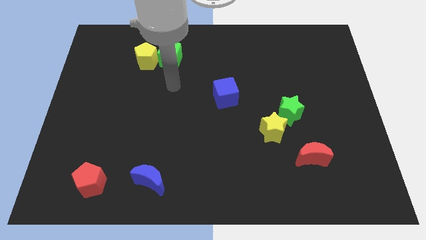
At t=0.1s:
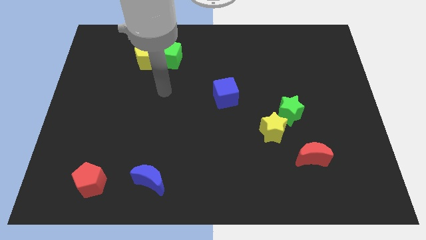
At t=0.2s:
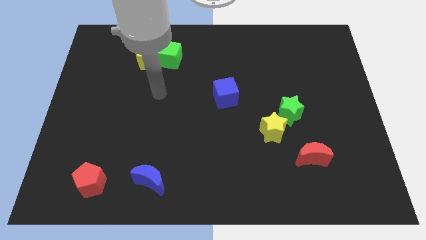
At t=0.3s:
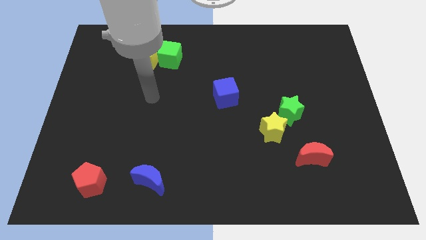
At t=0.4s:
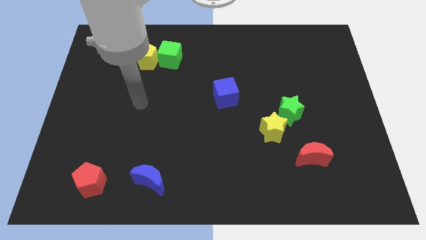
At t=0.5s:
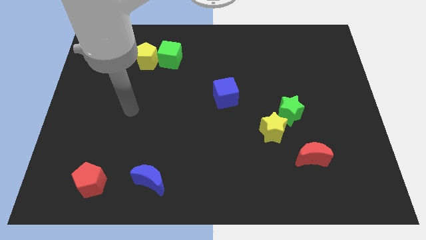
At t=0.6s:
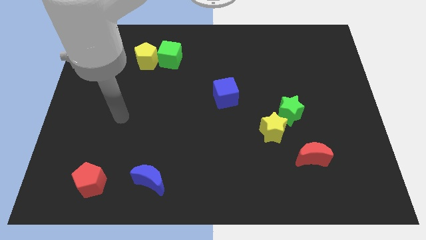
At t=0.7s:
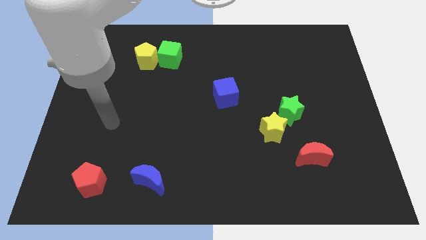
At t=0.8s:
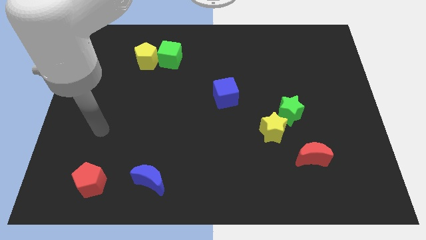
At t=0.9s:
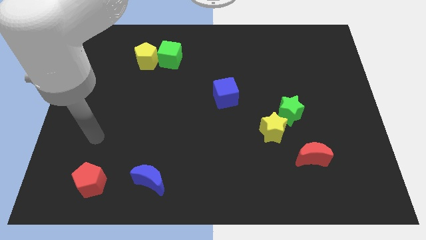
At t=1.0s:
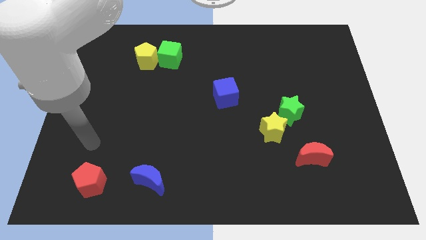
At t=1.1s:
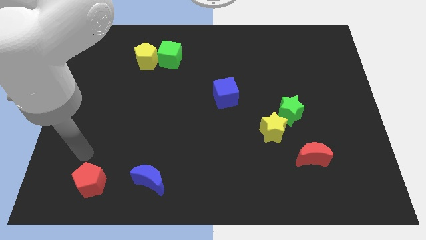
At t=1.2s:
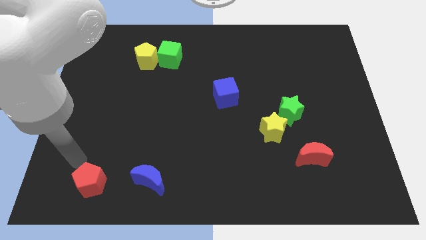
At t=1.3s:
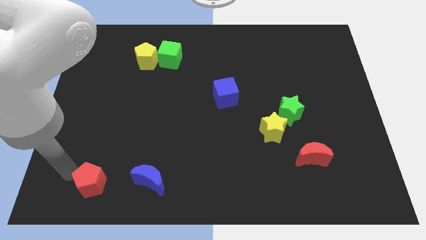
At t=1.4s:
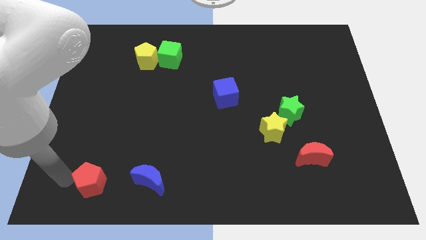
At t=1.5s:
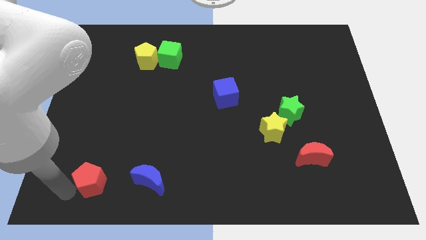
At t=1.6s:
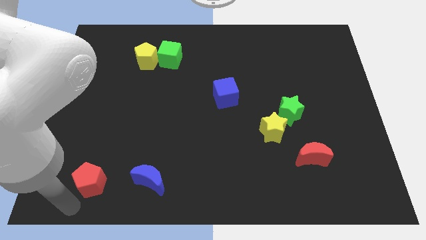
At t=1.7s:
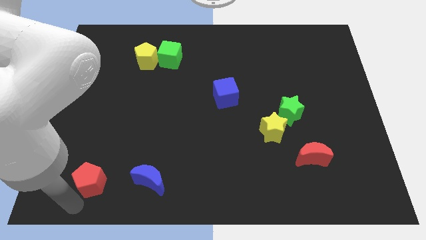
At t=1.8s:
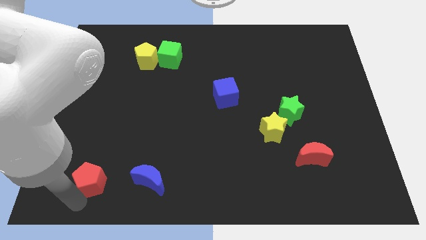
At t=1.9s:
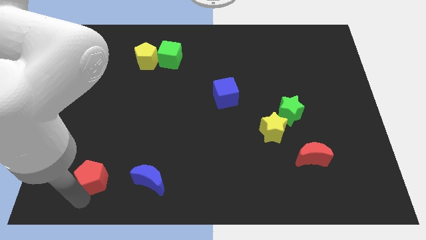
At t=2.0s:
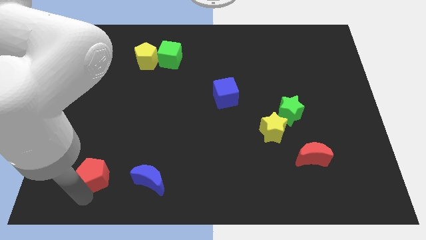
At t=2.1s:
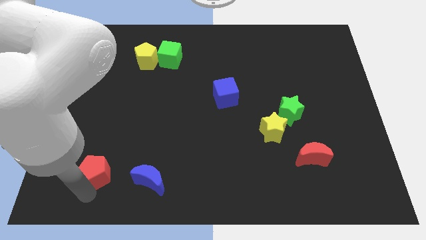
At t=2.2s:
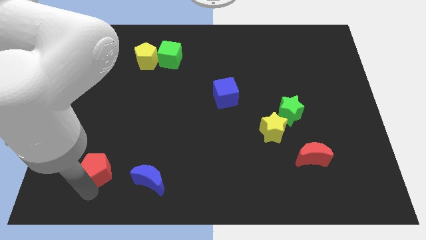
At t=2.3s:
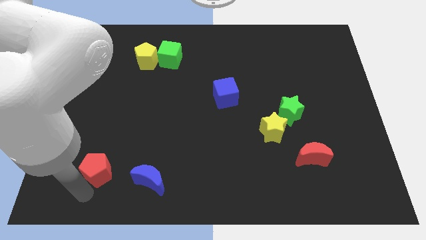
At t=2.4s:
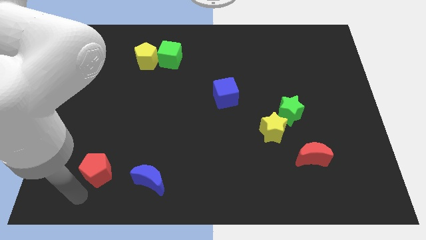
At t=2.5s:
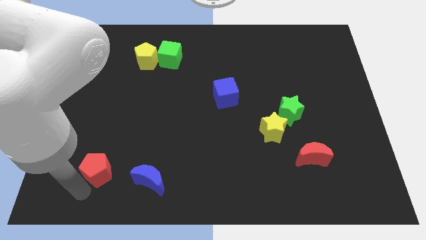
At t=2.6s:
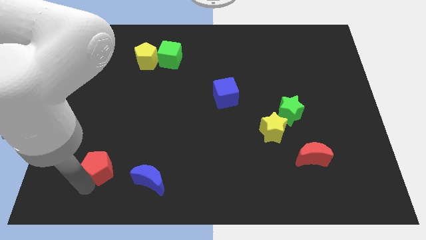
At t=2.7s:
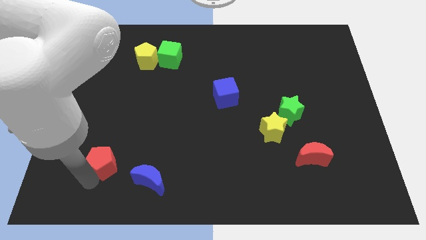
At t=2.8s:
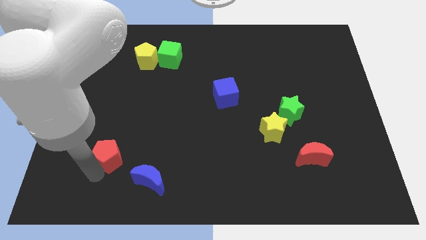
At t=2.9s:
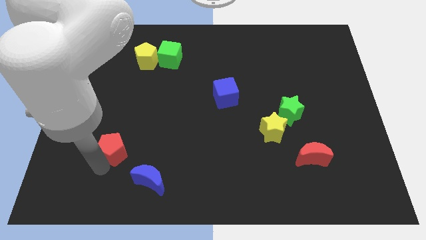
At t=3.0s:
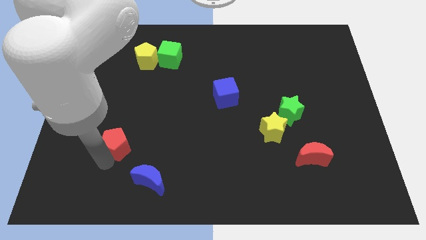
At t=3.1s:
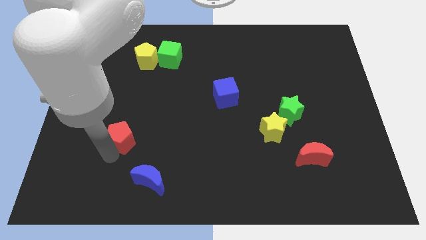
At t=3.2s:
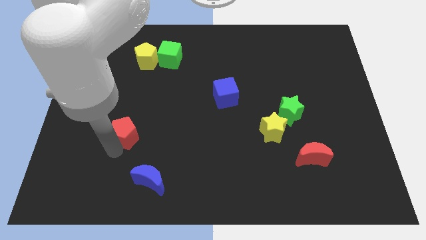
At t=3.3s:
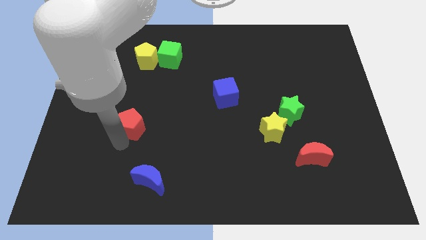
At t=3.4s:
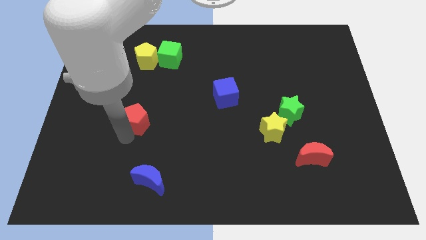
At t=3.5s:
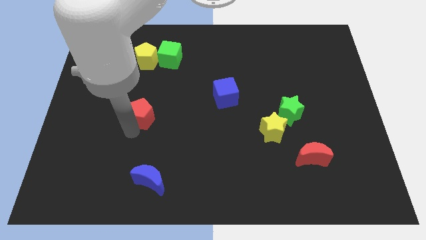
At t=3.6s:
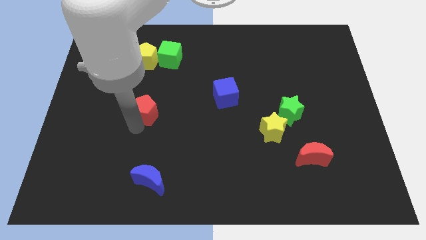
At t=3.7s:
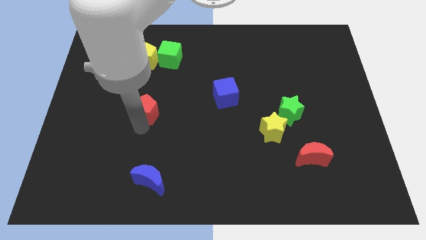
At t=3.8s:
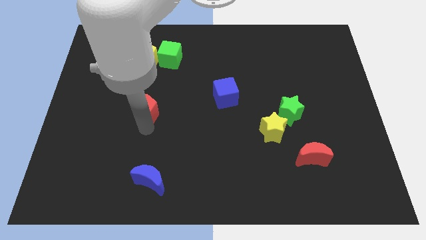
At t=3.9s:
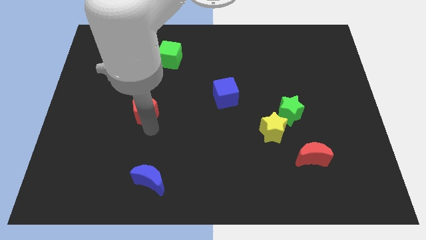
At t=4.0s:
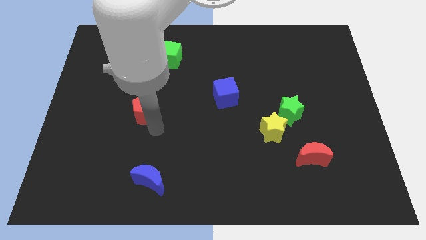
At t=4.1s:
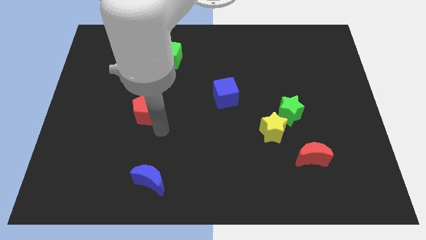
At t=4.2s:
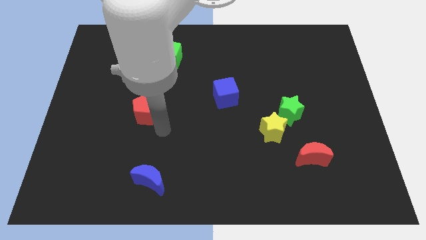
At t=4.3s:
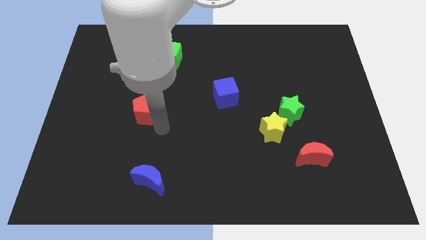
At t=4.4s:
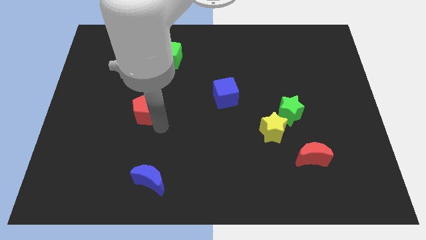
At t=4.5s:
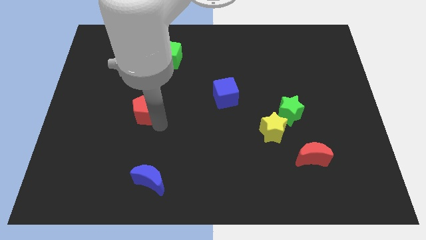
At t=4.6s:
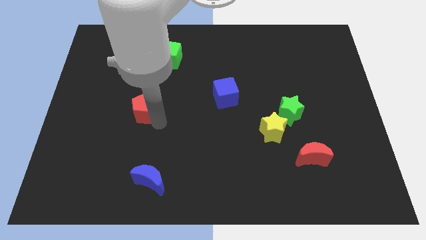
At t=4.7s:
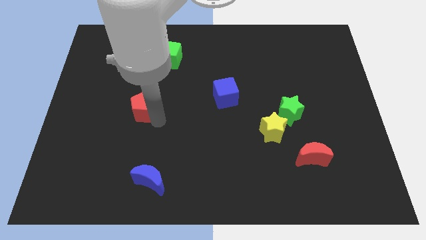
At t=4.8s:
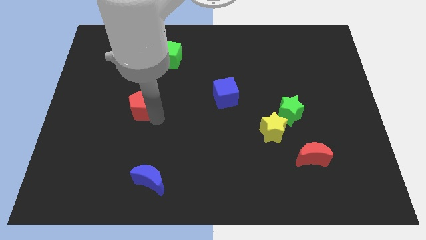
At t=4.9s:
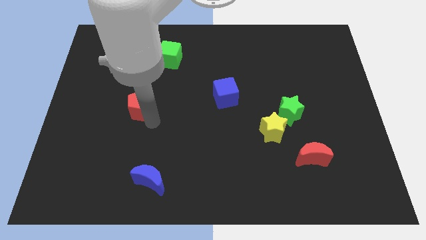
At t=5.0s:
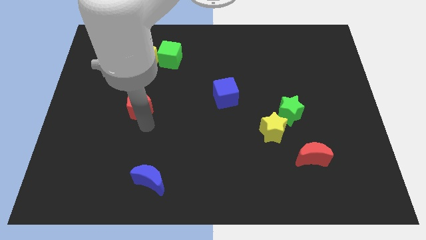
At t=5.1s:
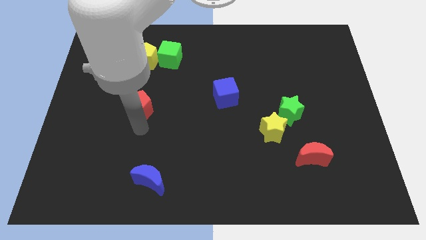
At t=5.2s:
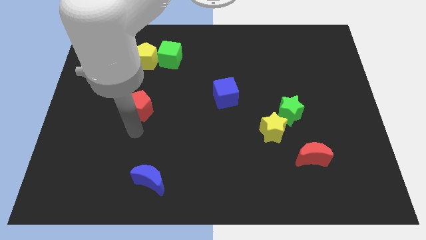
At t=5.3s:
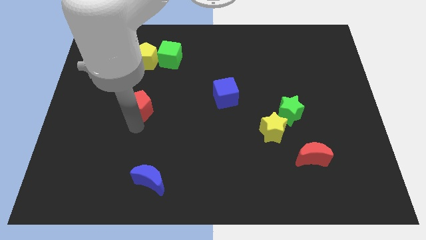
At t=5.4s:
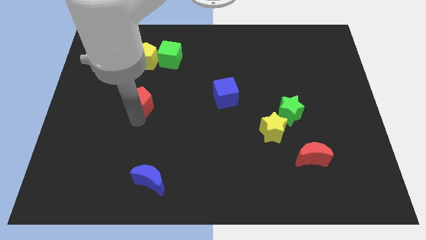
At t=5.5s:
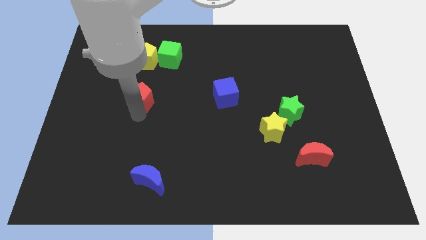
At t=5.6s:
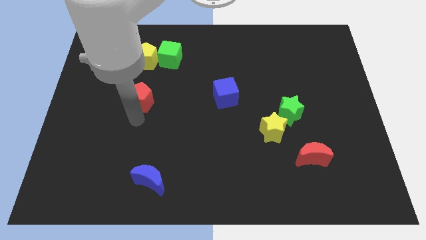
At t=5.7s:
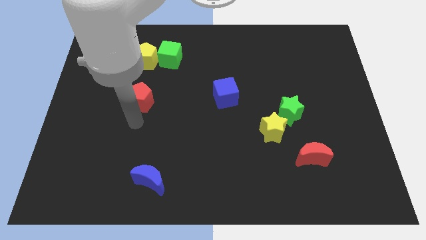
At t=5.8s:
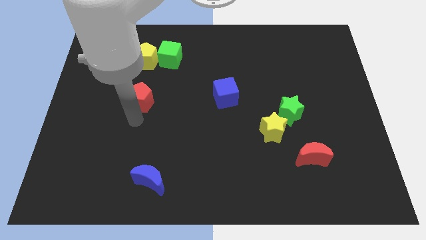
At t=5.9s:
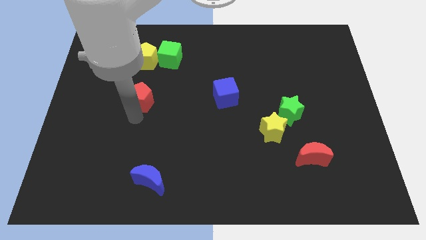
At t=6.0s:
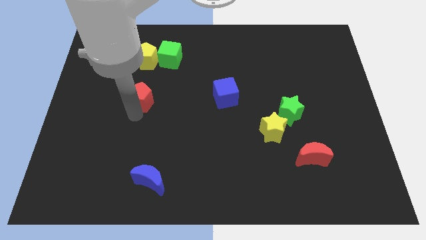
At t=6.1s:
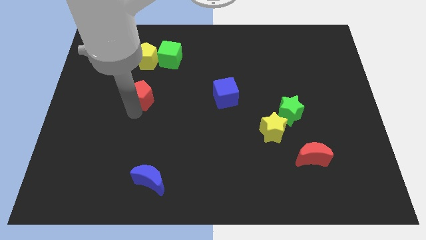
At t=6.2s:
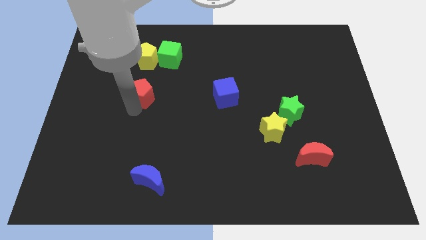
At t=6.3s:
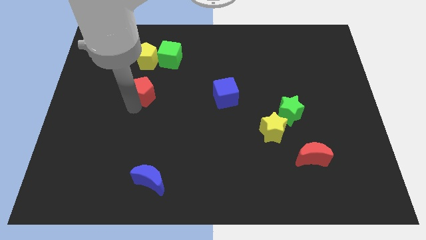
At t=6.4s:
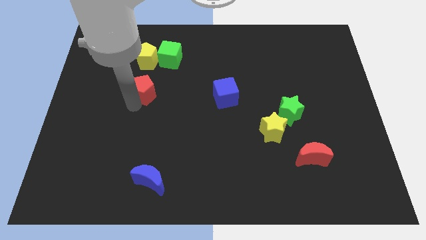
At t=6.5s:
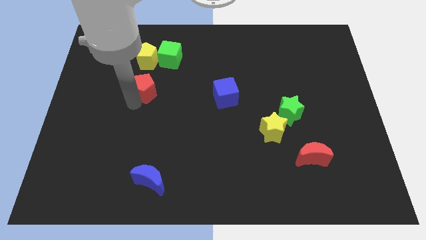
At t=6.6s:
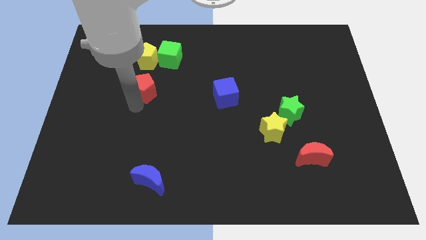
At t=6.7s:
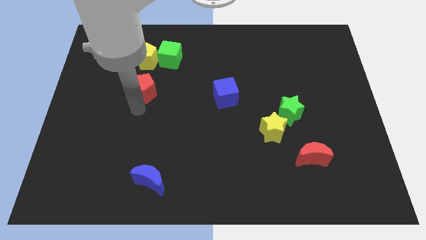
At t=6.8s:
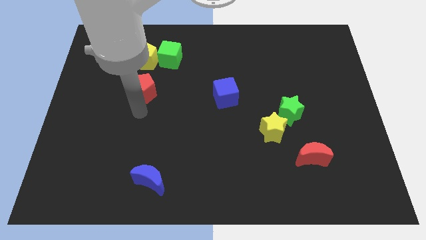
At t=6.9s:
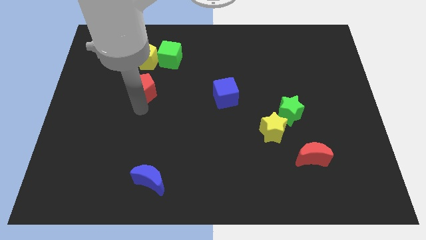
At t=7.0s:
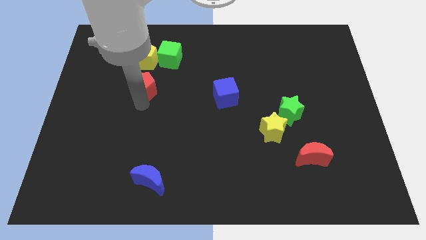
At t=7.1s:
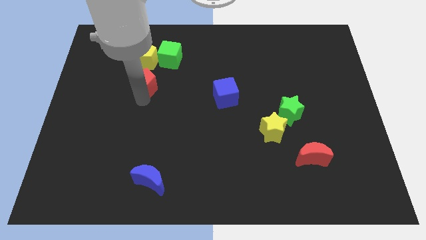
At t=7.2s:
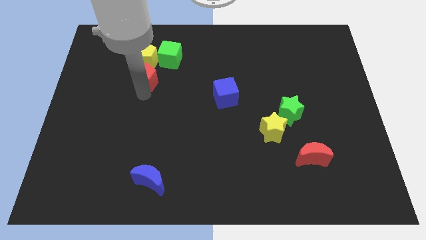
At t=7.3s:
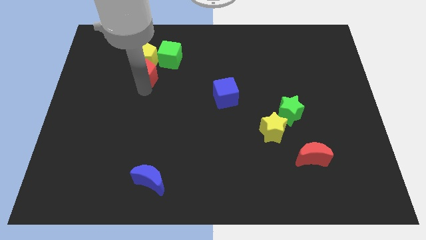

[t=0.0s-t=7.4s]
slide the red pentagon towards the yellow pentagon
